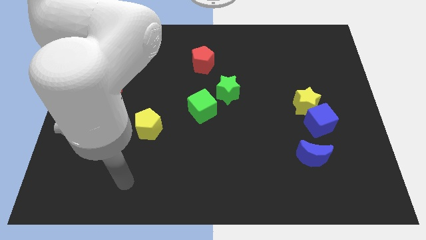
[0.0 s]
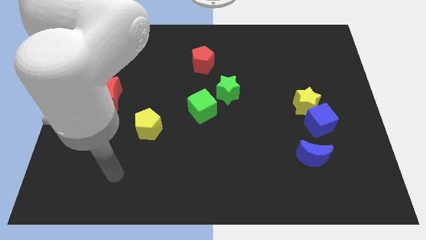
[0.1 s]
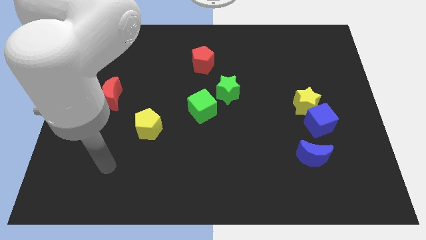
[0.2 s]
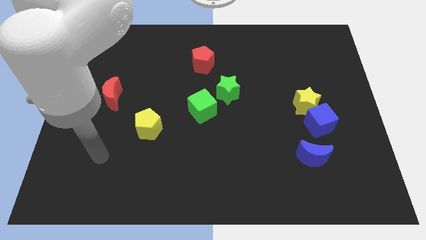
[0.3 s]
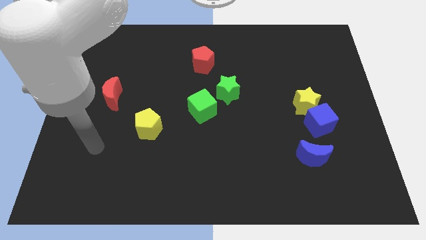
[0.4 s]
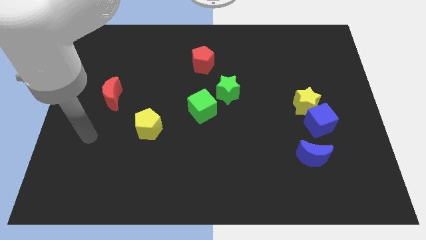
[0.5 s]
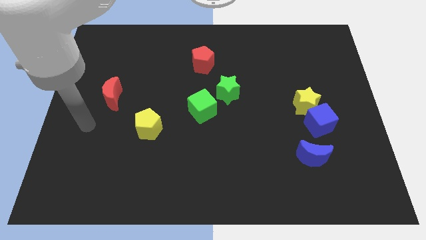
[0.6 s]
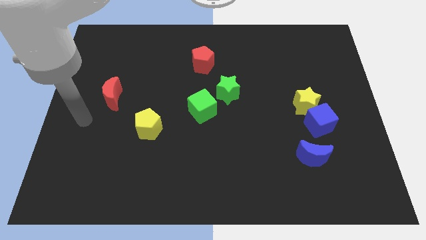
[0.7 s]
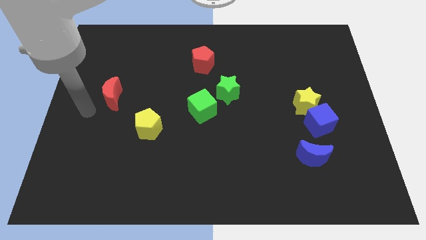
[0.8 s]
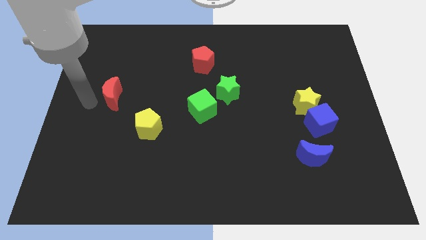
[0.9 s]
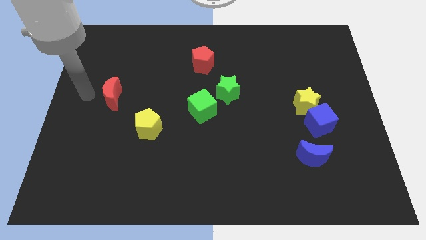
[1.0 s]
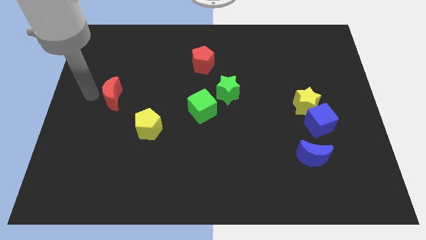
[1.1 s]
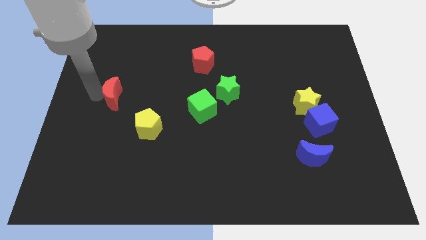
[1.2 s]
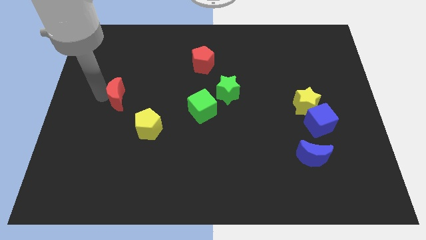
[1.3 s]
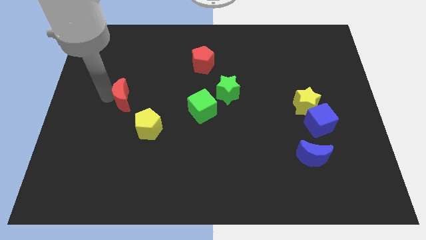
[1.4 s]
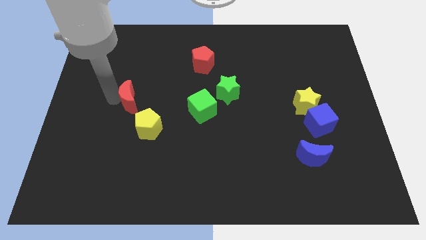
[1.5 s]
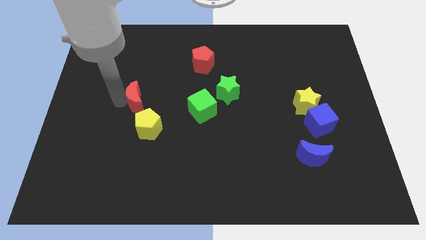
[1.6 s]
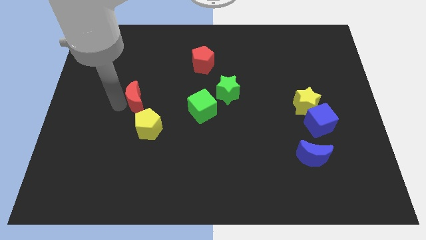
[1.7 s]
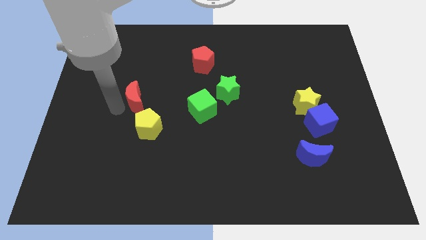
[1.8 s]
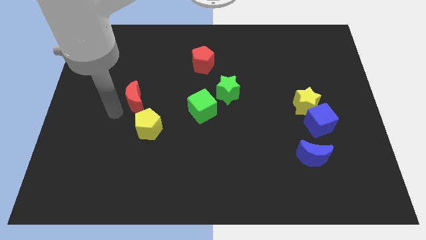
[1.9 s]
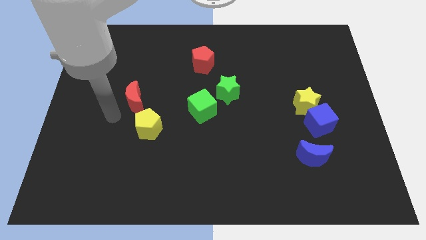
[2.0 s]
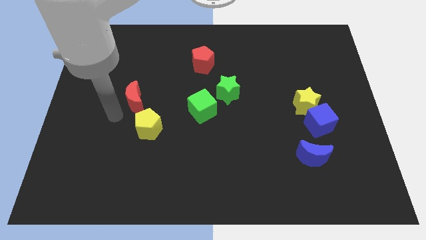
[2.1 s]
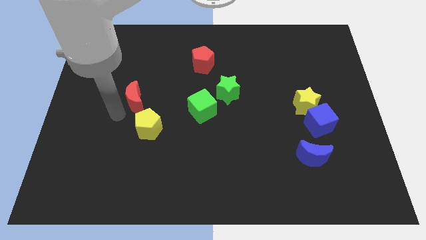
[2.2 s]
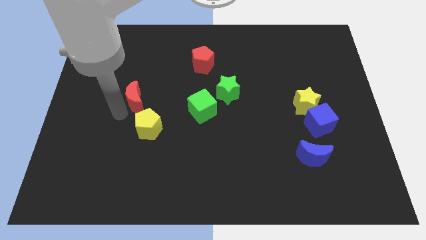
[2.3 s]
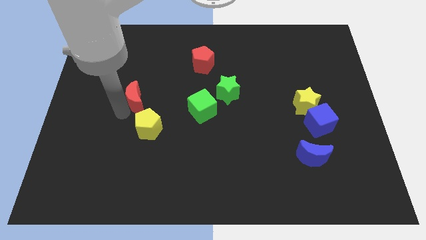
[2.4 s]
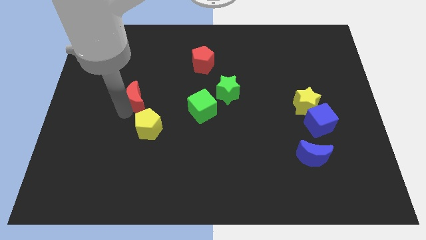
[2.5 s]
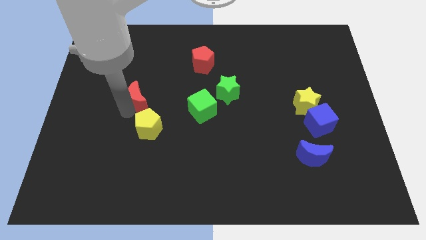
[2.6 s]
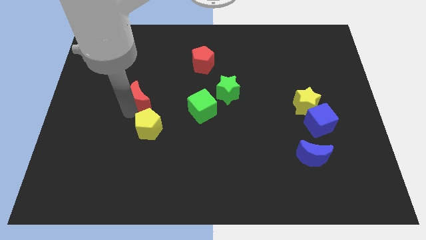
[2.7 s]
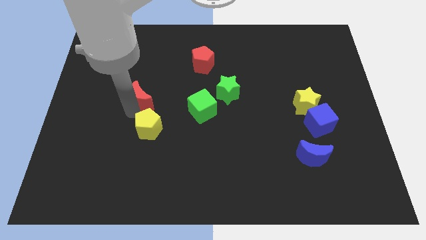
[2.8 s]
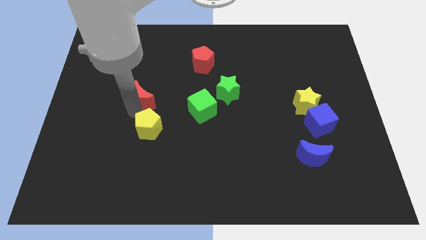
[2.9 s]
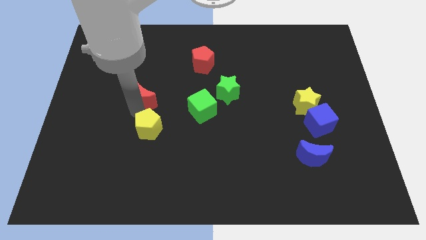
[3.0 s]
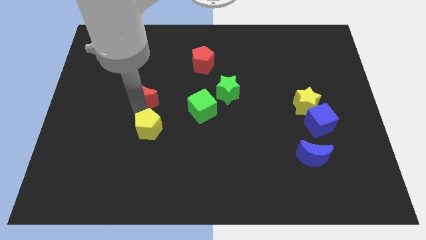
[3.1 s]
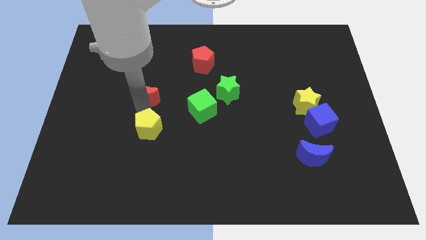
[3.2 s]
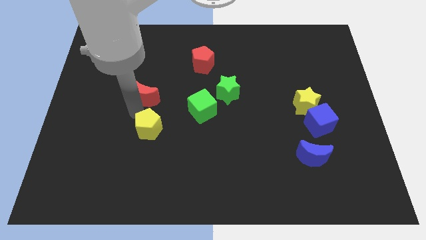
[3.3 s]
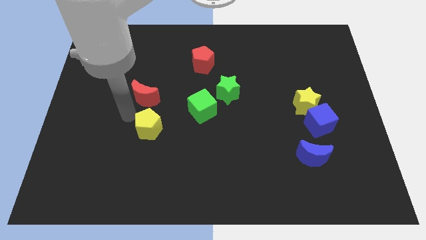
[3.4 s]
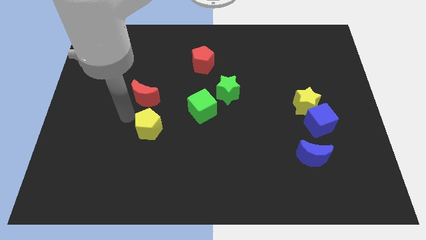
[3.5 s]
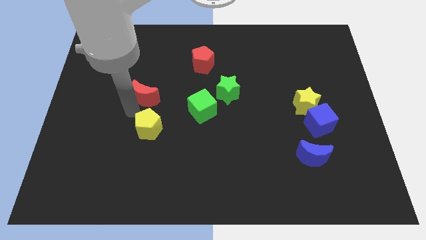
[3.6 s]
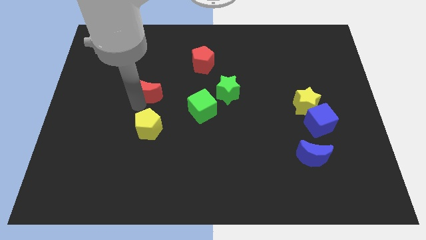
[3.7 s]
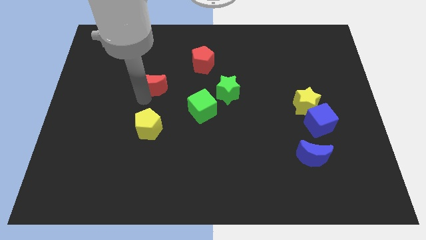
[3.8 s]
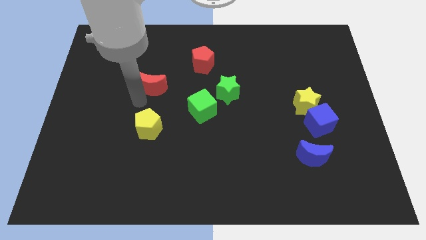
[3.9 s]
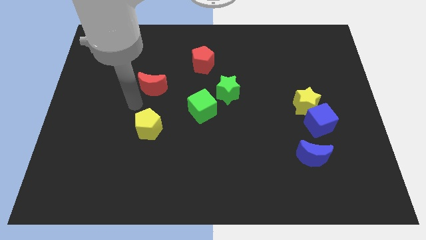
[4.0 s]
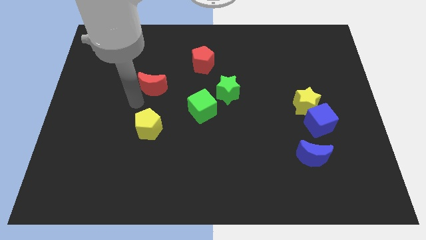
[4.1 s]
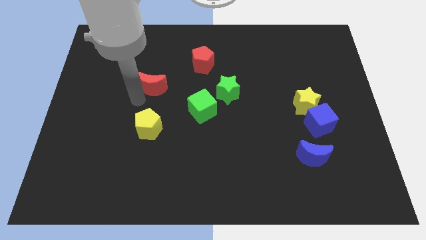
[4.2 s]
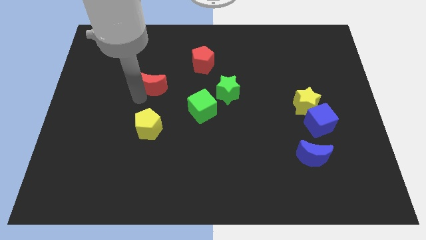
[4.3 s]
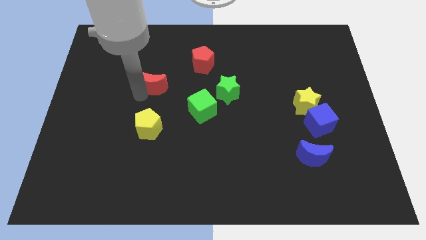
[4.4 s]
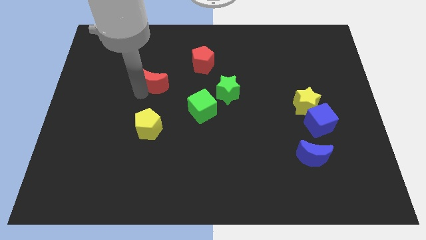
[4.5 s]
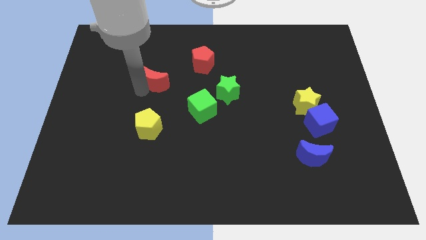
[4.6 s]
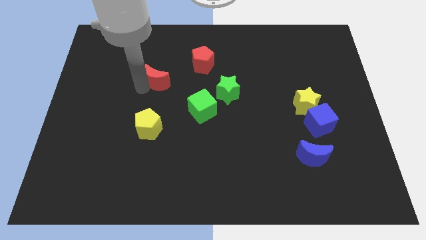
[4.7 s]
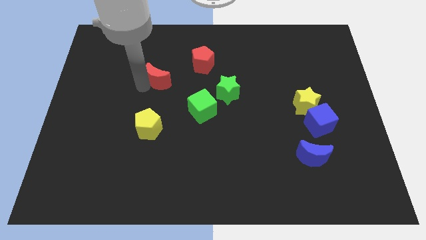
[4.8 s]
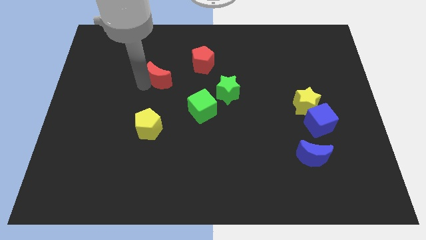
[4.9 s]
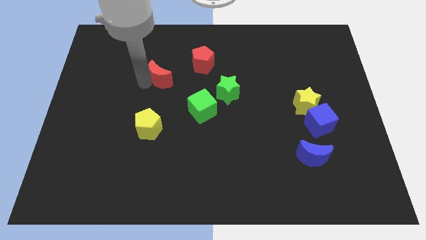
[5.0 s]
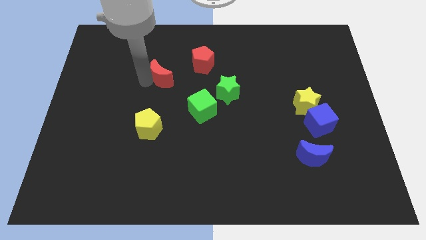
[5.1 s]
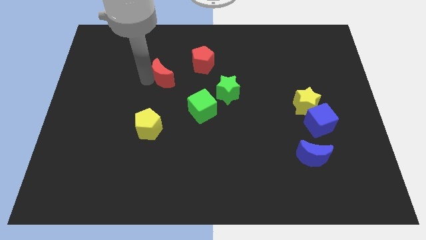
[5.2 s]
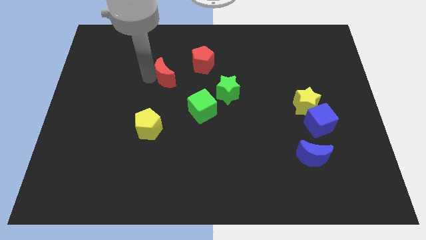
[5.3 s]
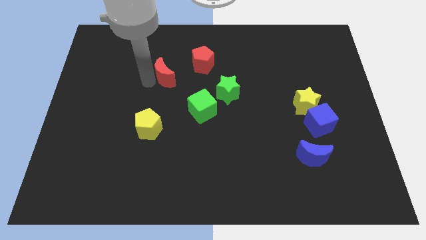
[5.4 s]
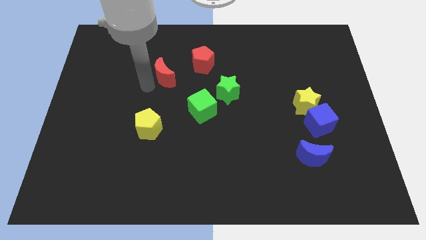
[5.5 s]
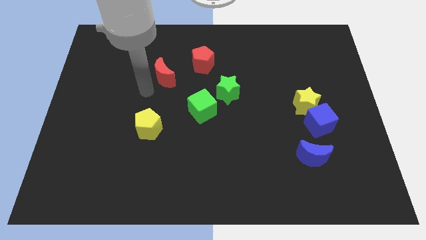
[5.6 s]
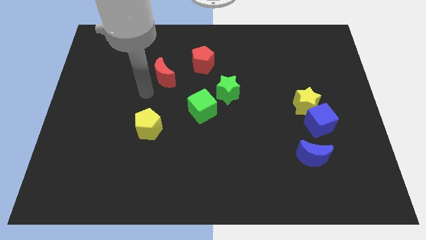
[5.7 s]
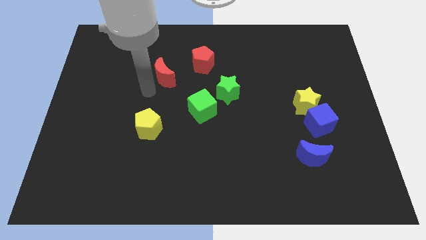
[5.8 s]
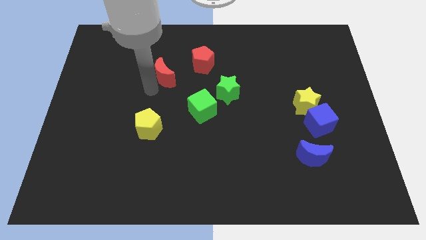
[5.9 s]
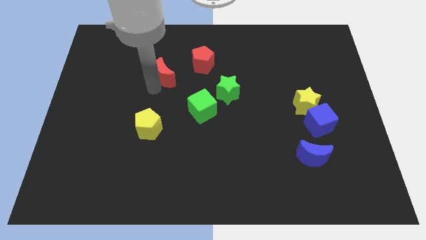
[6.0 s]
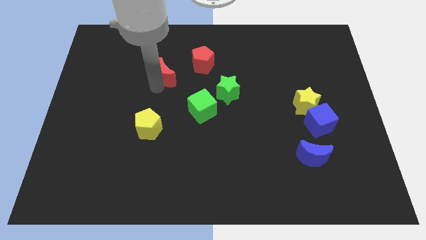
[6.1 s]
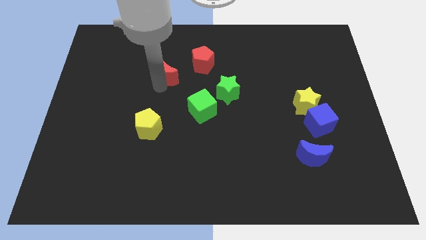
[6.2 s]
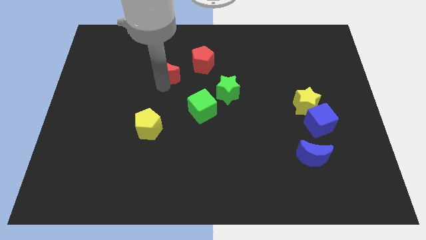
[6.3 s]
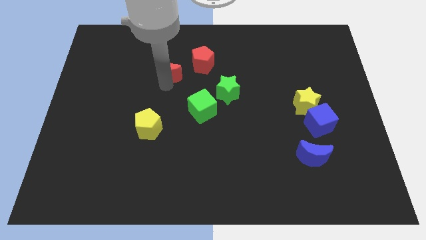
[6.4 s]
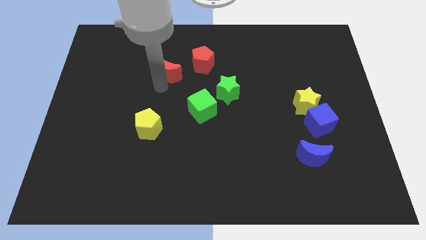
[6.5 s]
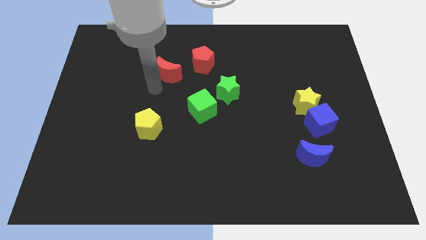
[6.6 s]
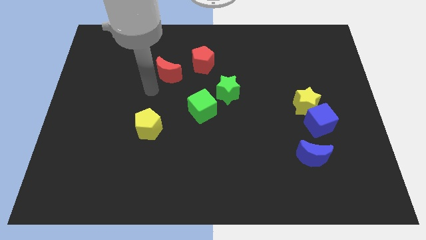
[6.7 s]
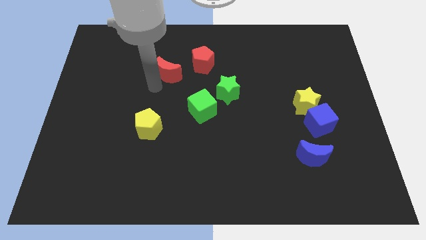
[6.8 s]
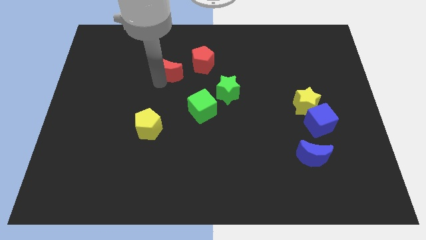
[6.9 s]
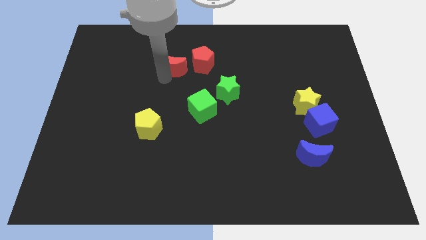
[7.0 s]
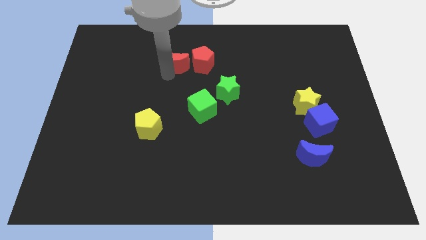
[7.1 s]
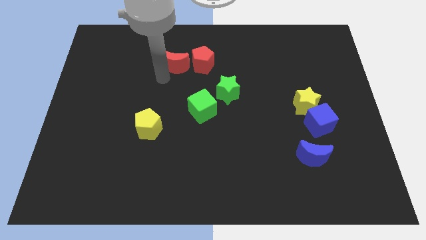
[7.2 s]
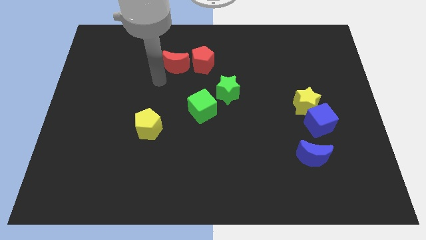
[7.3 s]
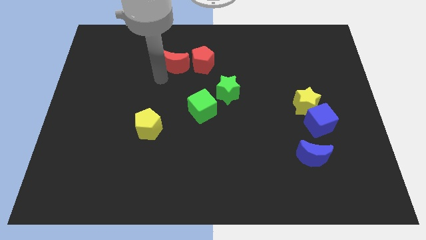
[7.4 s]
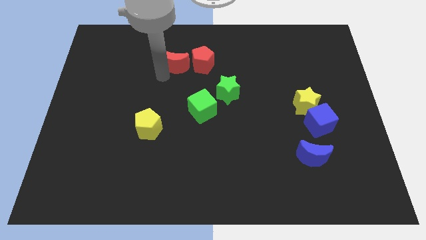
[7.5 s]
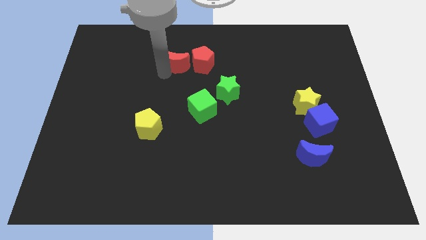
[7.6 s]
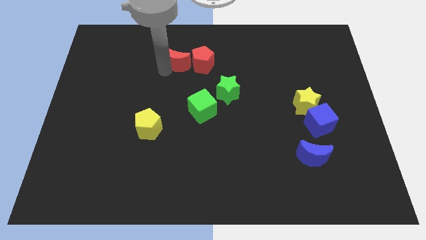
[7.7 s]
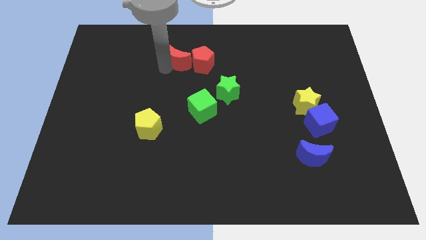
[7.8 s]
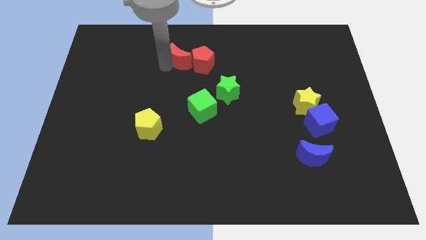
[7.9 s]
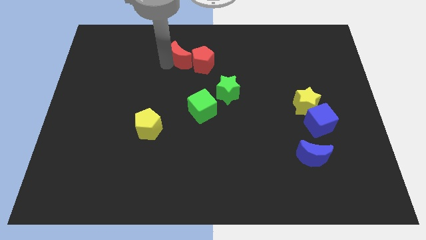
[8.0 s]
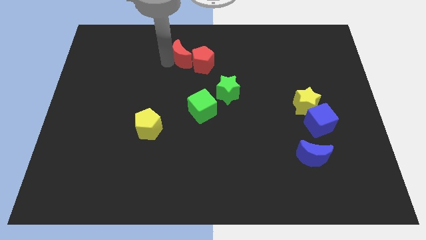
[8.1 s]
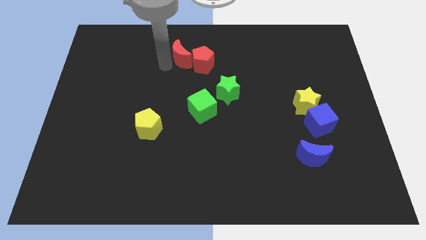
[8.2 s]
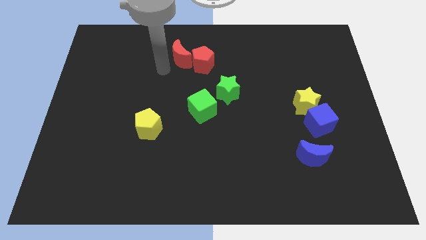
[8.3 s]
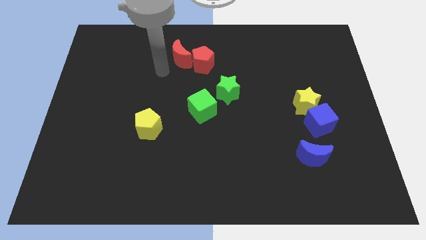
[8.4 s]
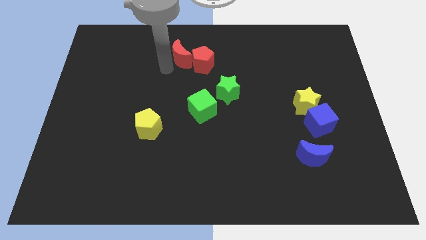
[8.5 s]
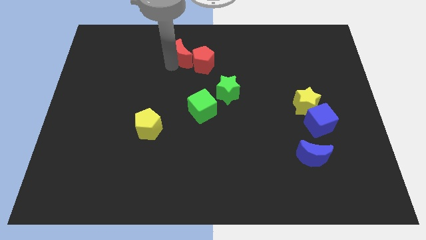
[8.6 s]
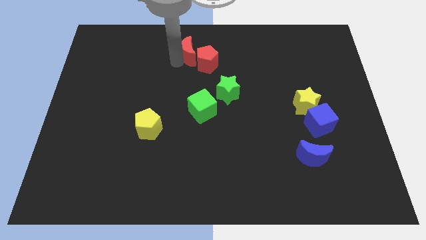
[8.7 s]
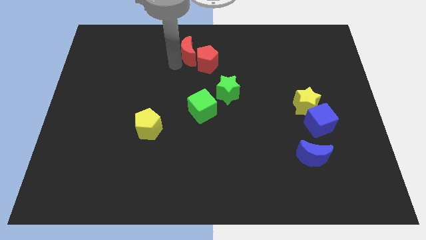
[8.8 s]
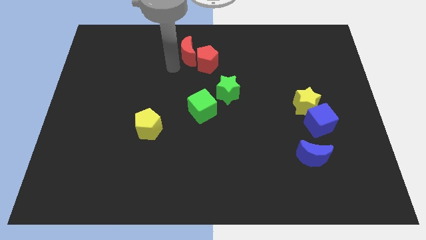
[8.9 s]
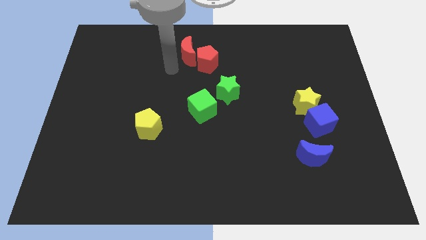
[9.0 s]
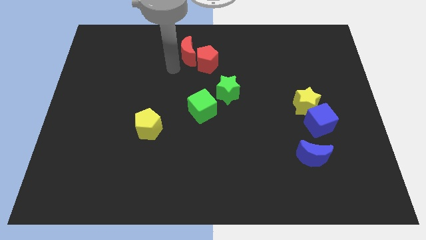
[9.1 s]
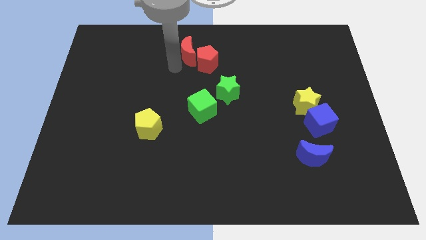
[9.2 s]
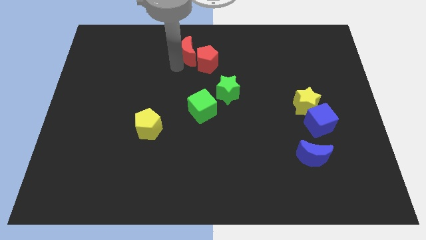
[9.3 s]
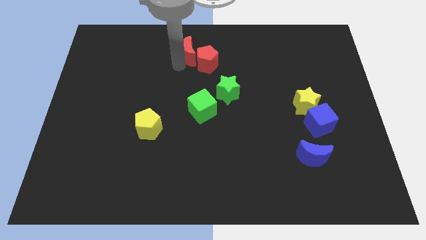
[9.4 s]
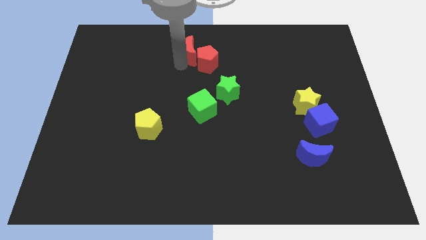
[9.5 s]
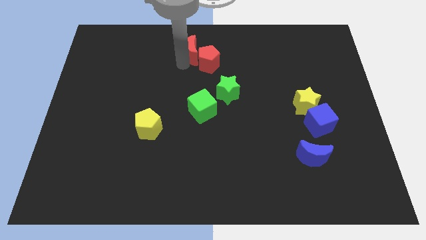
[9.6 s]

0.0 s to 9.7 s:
push the red moon to the towards your base
